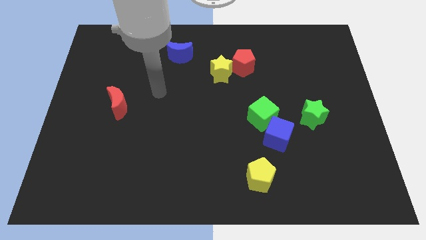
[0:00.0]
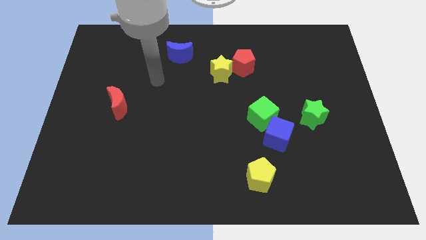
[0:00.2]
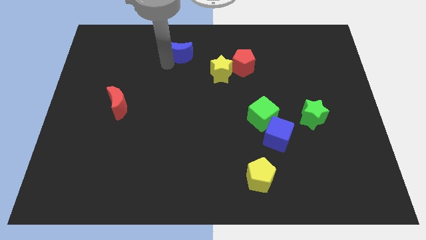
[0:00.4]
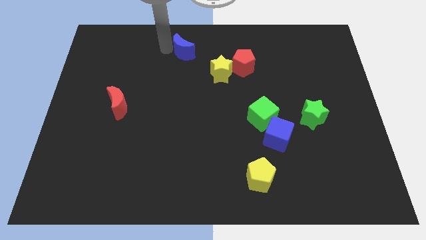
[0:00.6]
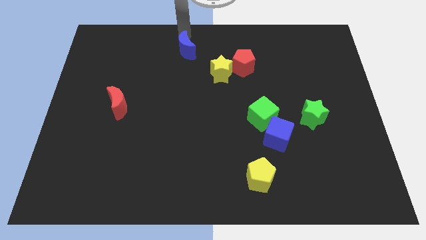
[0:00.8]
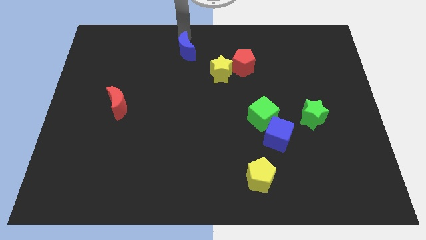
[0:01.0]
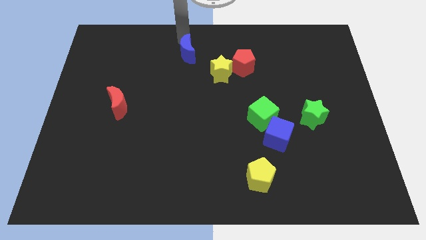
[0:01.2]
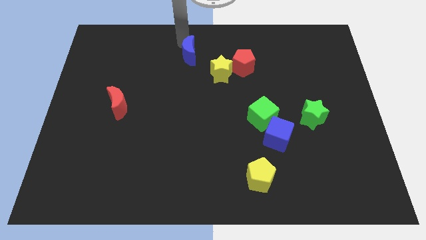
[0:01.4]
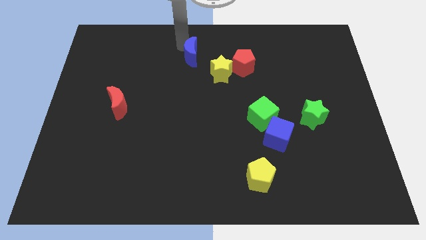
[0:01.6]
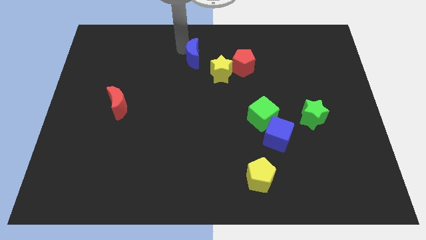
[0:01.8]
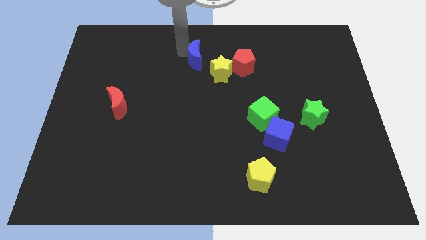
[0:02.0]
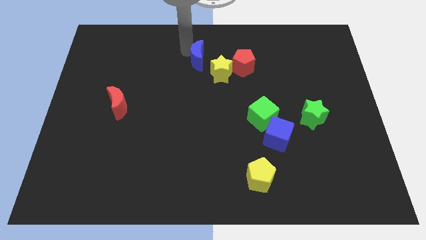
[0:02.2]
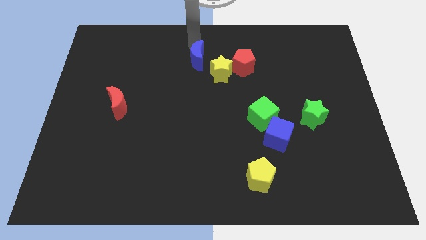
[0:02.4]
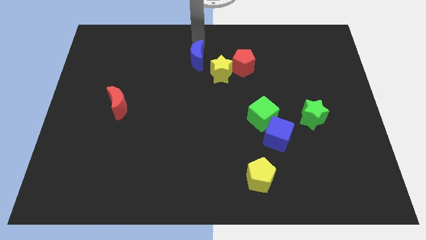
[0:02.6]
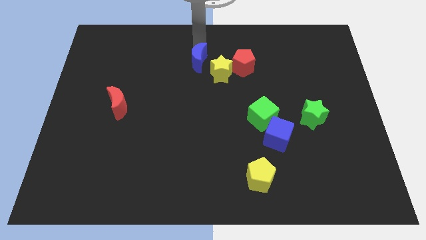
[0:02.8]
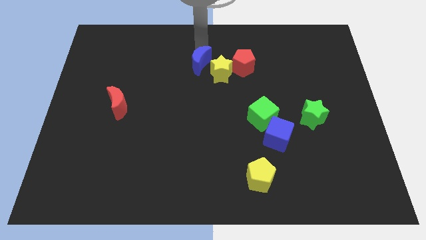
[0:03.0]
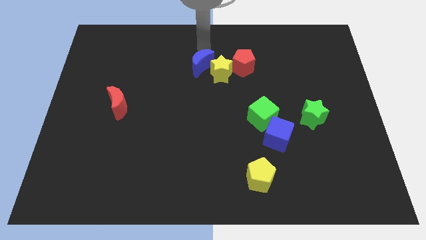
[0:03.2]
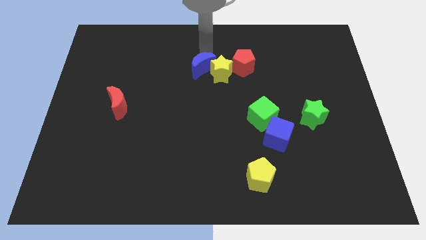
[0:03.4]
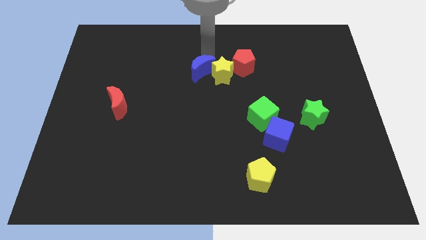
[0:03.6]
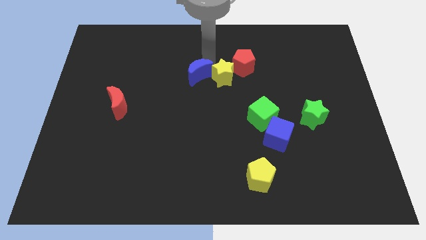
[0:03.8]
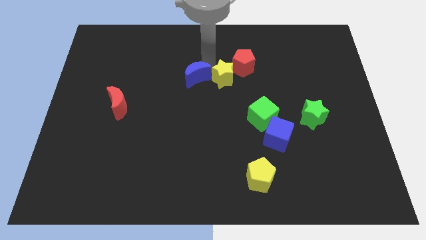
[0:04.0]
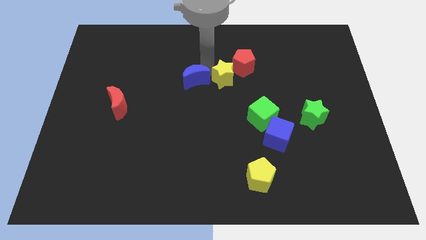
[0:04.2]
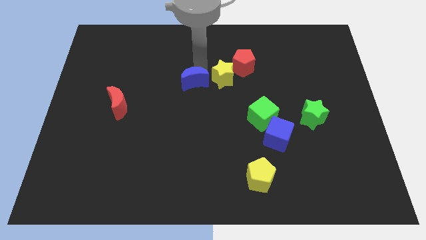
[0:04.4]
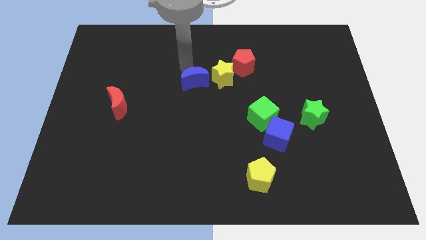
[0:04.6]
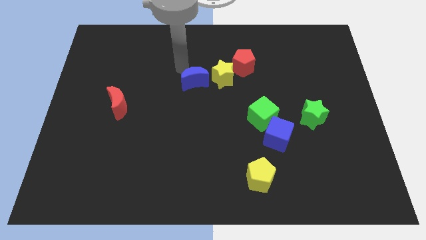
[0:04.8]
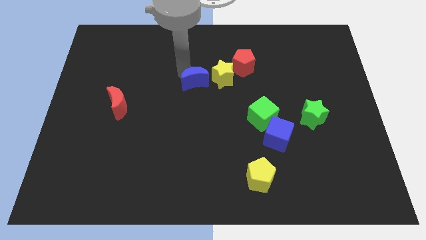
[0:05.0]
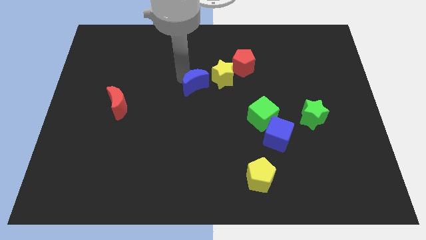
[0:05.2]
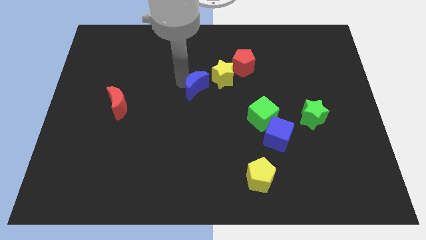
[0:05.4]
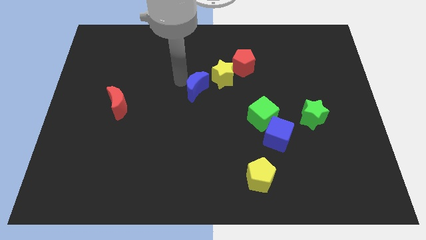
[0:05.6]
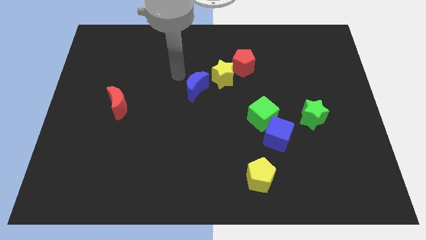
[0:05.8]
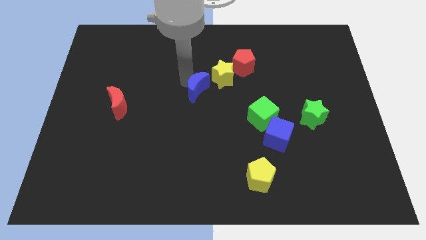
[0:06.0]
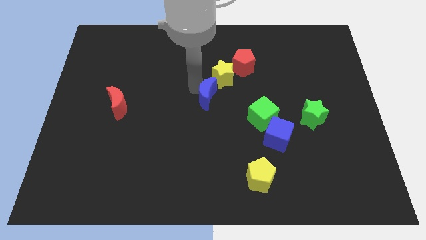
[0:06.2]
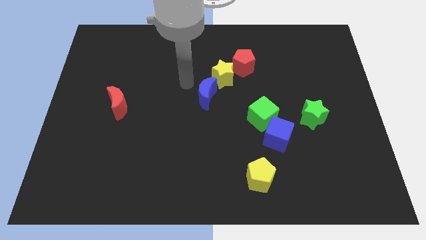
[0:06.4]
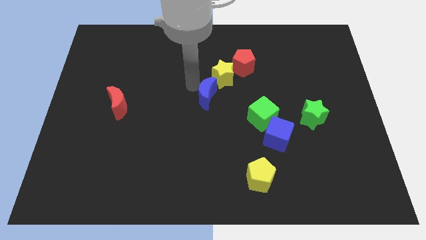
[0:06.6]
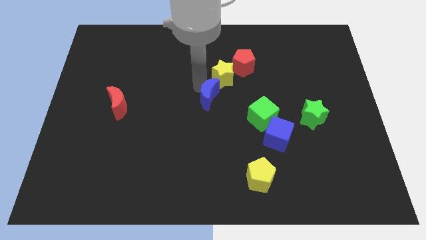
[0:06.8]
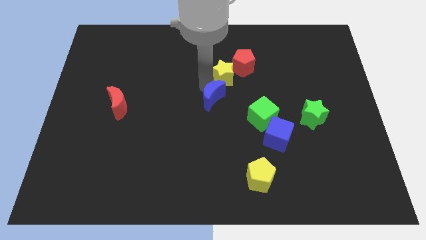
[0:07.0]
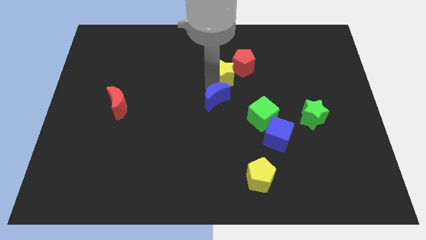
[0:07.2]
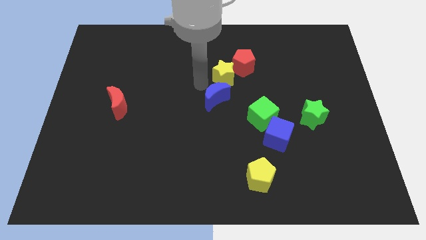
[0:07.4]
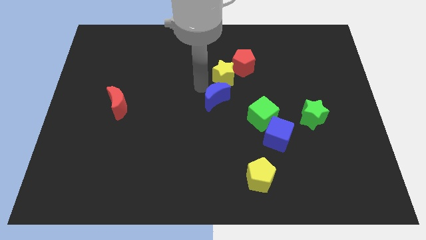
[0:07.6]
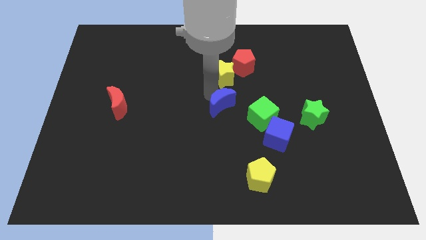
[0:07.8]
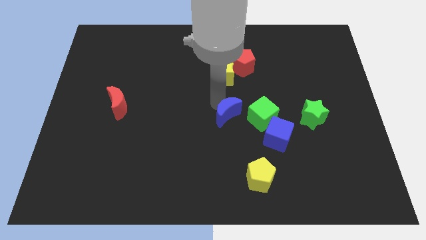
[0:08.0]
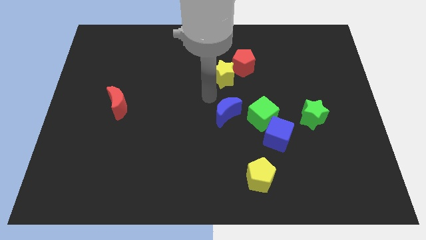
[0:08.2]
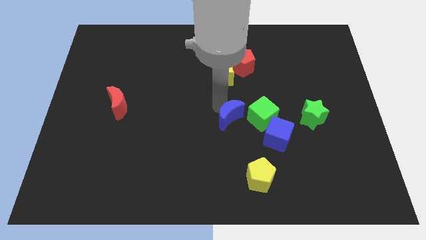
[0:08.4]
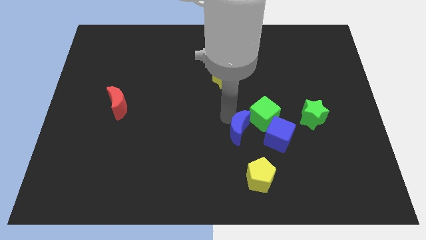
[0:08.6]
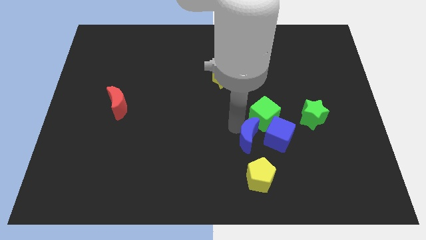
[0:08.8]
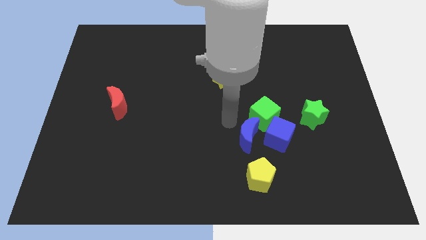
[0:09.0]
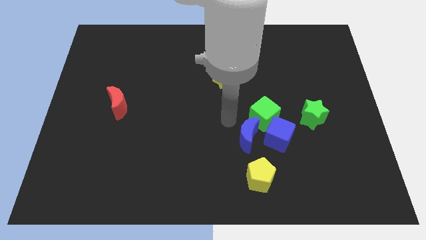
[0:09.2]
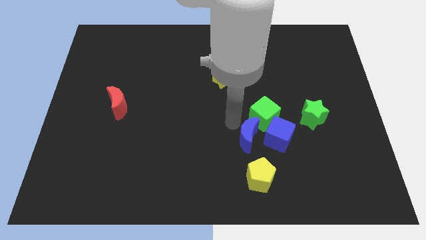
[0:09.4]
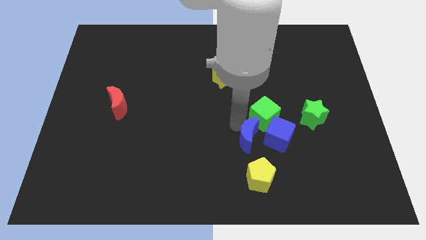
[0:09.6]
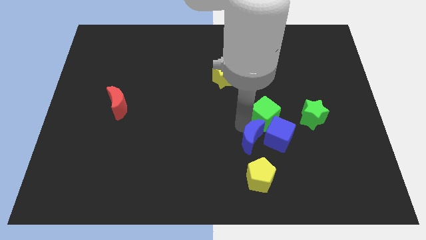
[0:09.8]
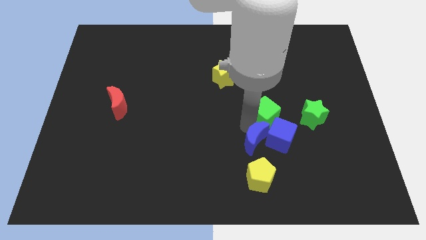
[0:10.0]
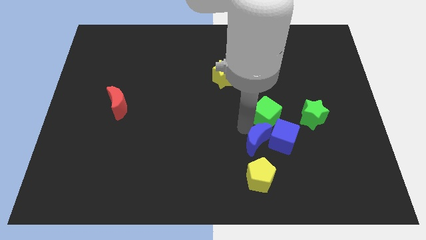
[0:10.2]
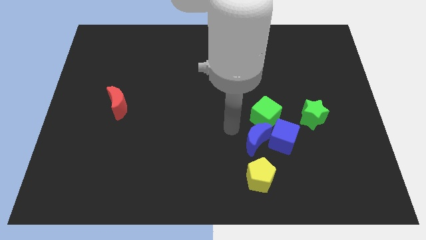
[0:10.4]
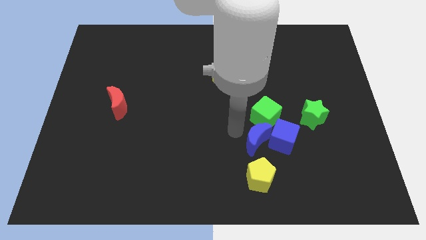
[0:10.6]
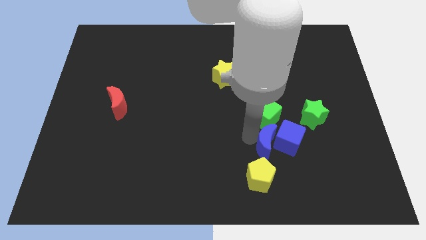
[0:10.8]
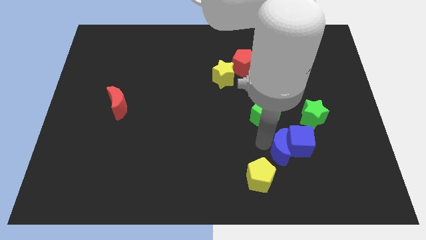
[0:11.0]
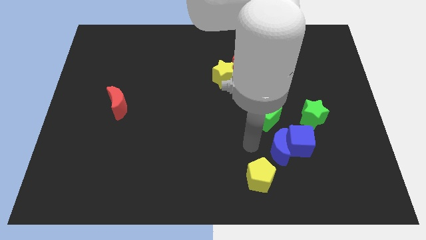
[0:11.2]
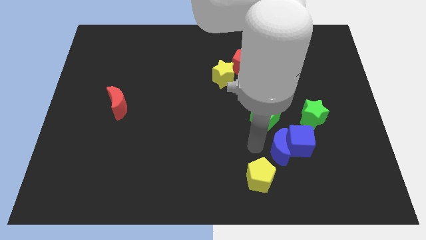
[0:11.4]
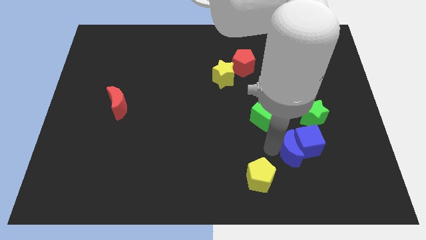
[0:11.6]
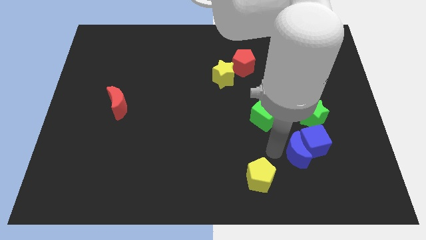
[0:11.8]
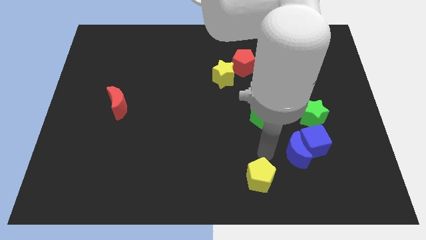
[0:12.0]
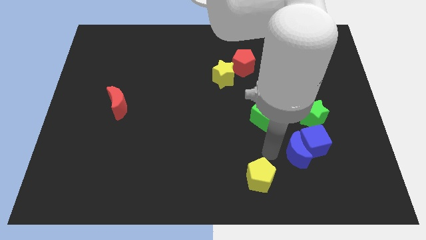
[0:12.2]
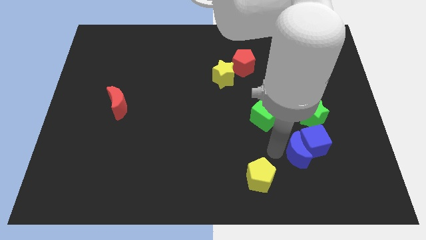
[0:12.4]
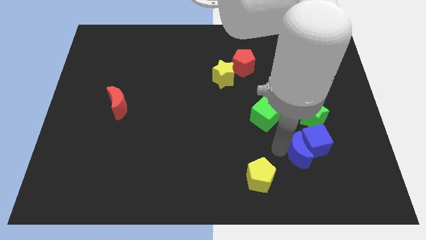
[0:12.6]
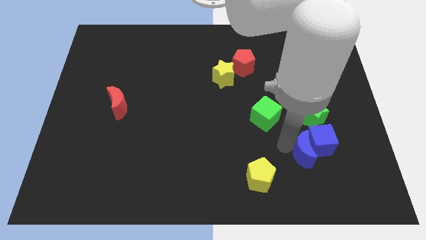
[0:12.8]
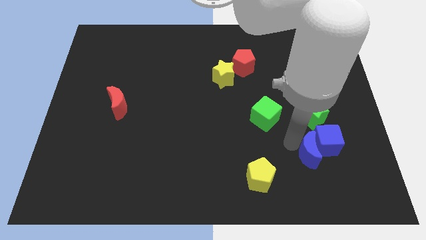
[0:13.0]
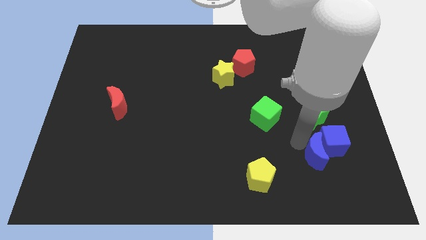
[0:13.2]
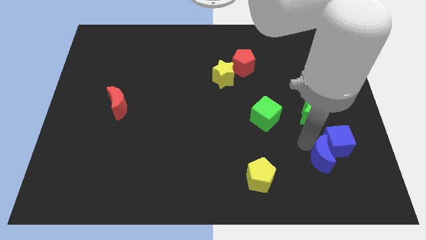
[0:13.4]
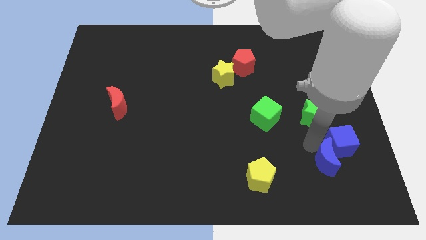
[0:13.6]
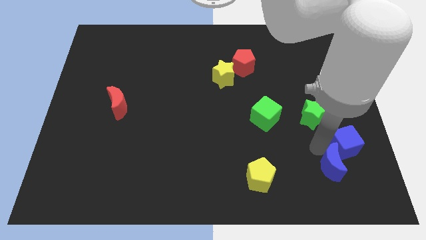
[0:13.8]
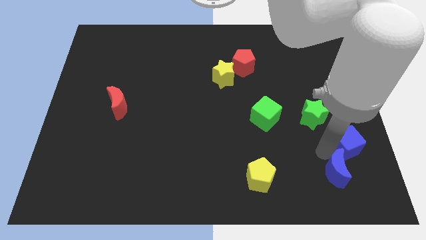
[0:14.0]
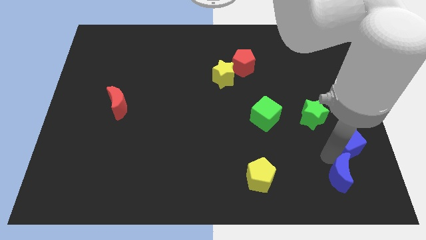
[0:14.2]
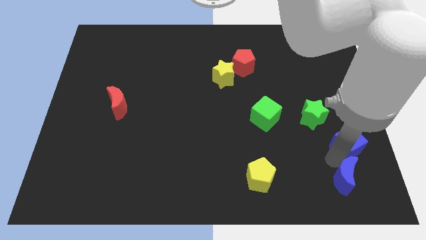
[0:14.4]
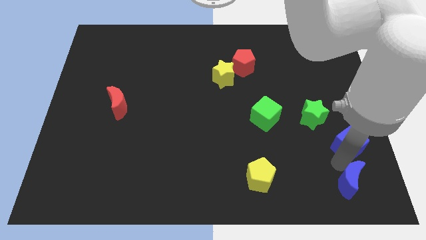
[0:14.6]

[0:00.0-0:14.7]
put the blue moon to the bottom right
